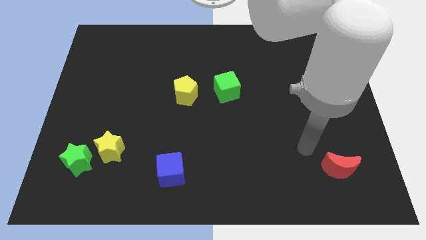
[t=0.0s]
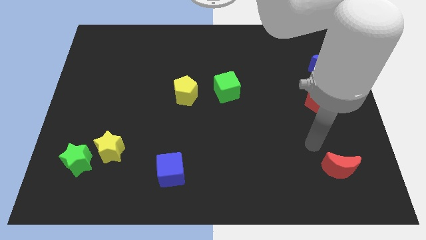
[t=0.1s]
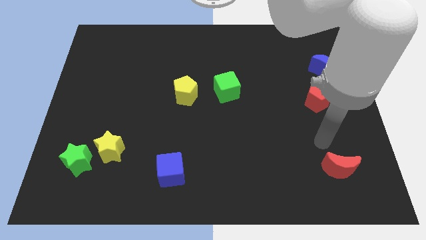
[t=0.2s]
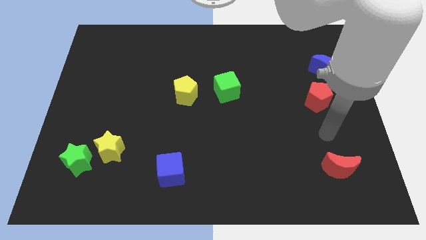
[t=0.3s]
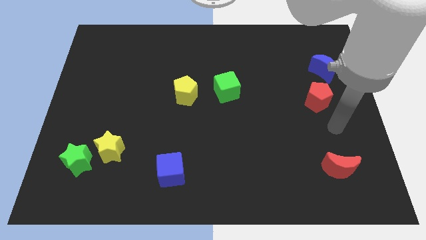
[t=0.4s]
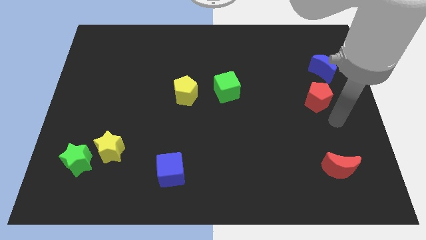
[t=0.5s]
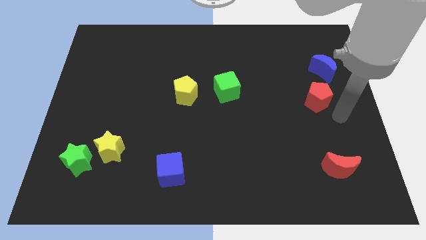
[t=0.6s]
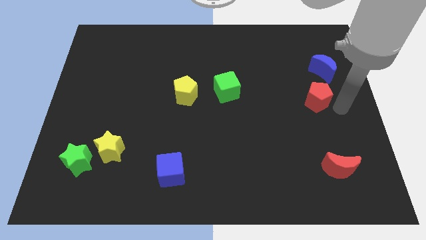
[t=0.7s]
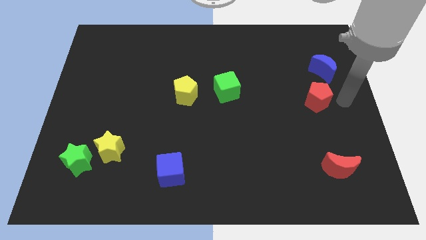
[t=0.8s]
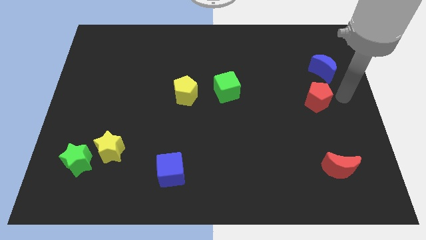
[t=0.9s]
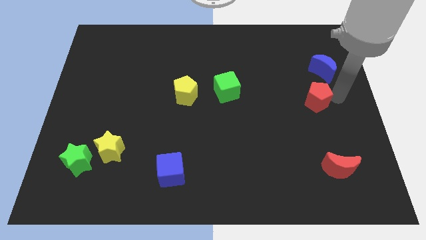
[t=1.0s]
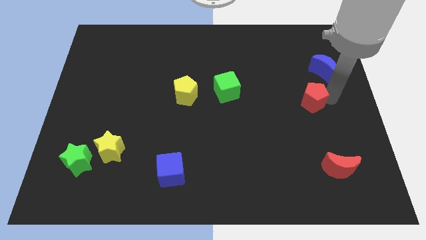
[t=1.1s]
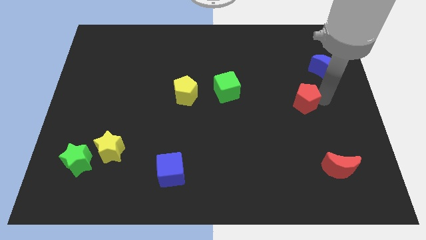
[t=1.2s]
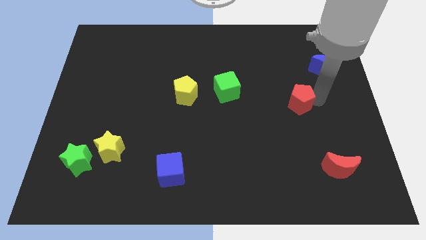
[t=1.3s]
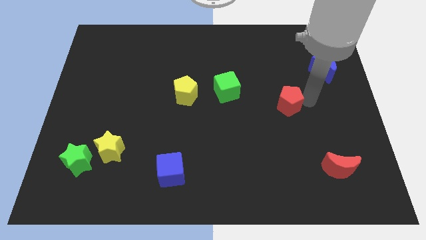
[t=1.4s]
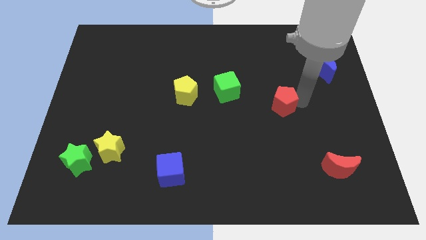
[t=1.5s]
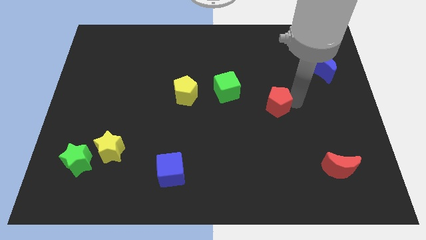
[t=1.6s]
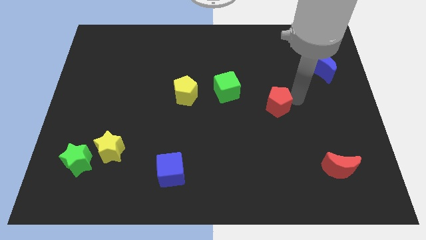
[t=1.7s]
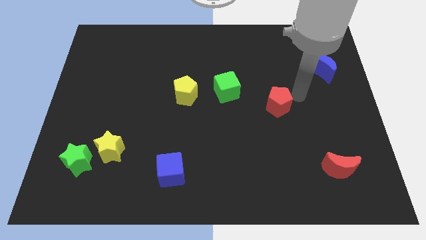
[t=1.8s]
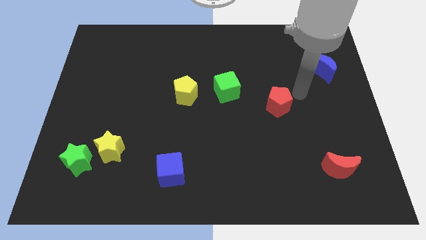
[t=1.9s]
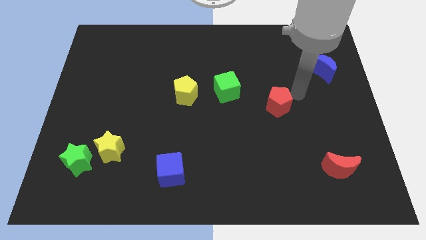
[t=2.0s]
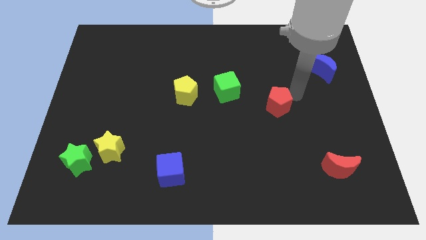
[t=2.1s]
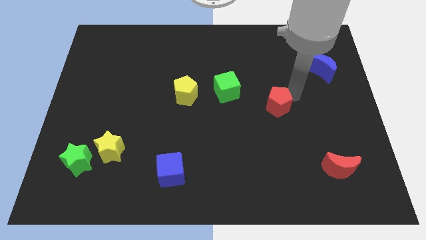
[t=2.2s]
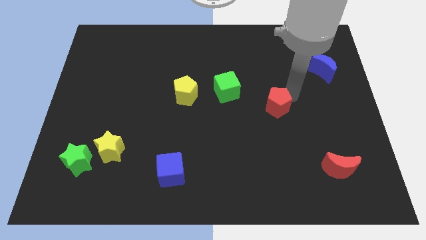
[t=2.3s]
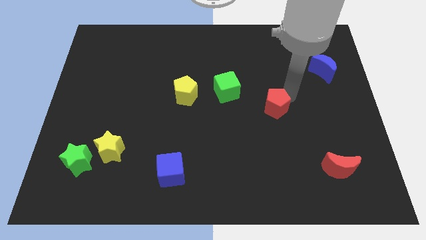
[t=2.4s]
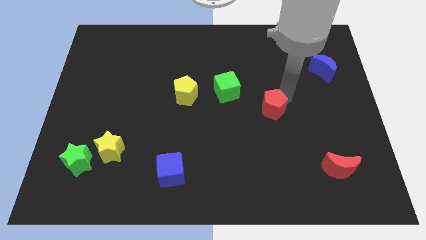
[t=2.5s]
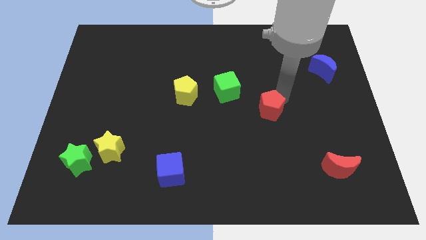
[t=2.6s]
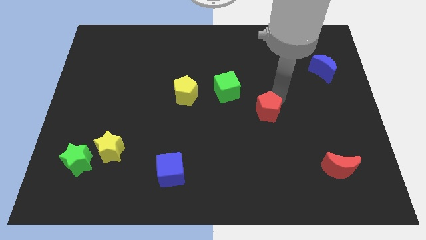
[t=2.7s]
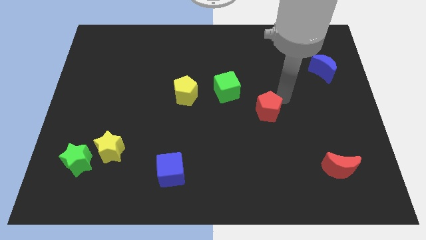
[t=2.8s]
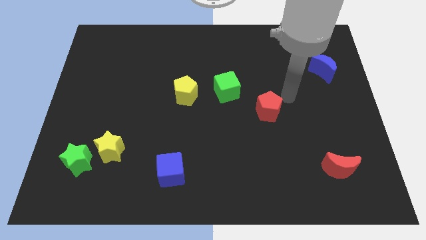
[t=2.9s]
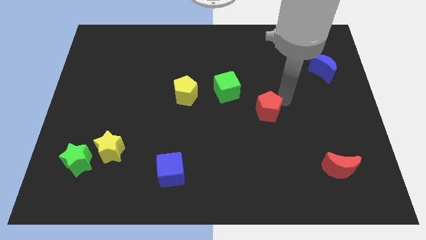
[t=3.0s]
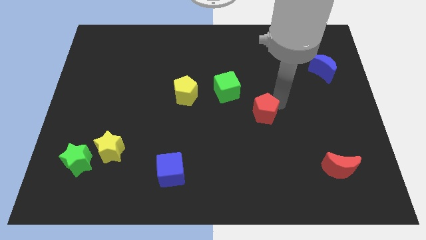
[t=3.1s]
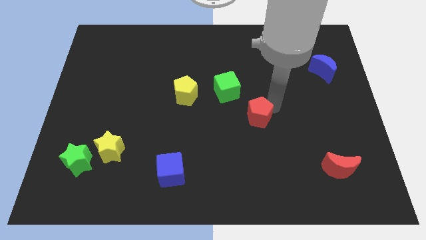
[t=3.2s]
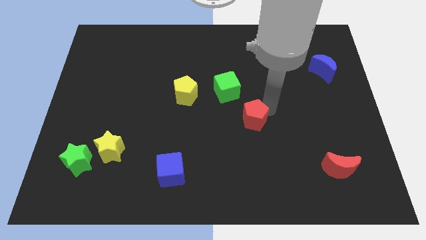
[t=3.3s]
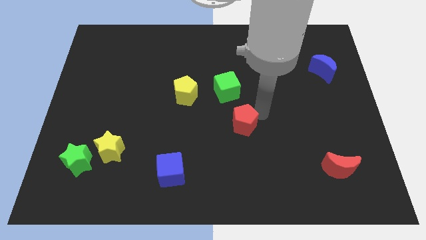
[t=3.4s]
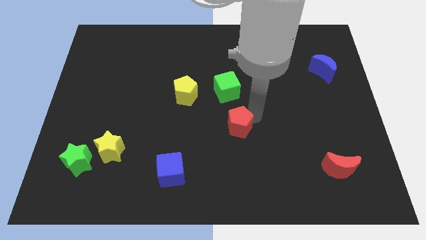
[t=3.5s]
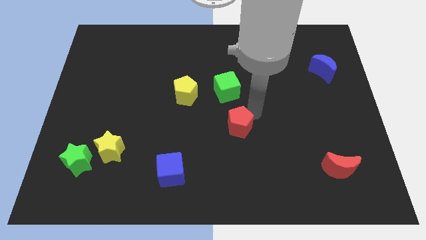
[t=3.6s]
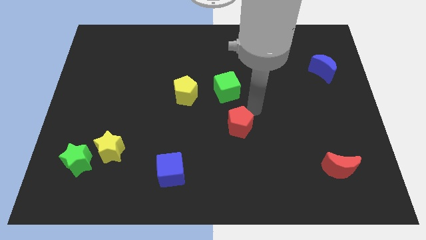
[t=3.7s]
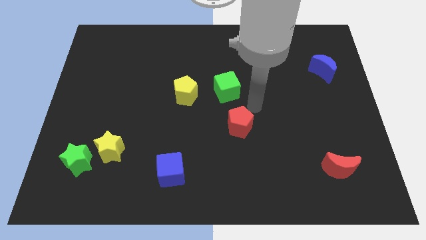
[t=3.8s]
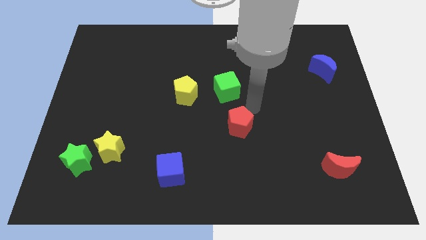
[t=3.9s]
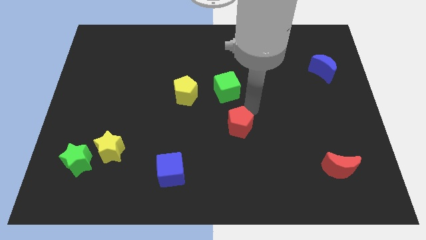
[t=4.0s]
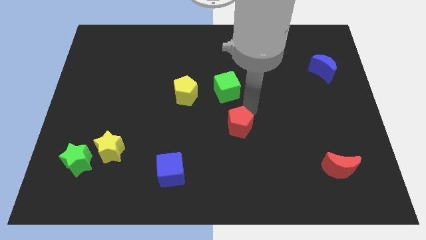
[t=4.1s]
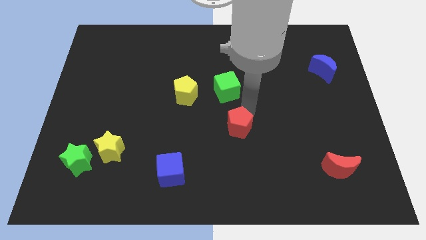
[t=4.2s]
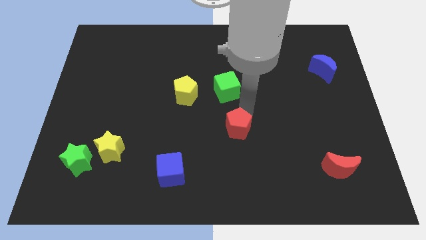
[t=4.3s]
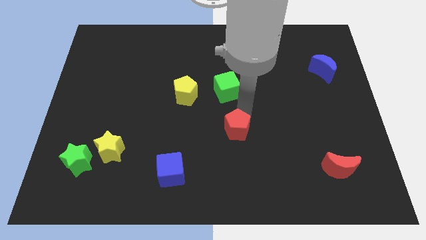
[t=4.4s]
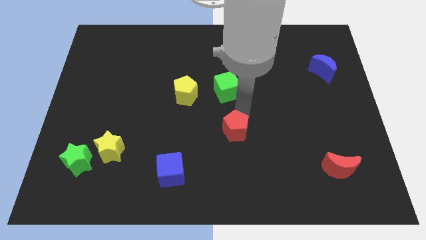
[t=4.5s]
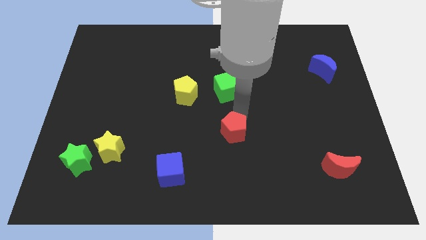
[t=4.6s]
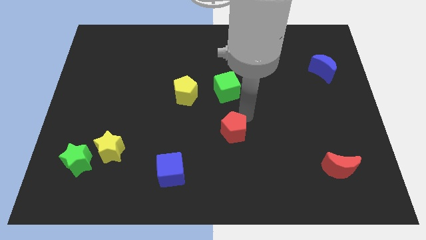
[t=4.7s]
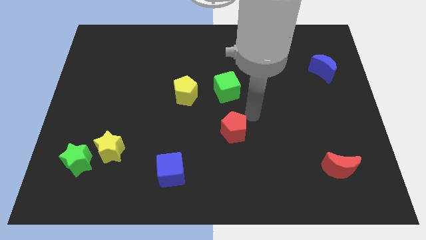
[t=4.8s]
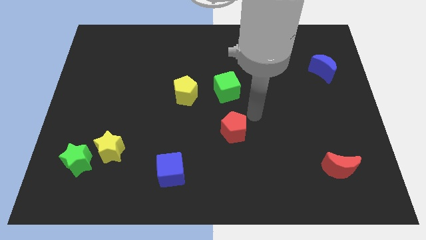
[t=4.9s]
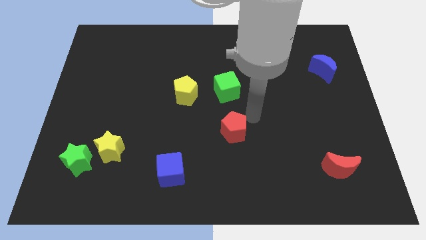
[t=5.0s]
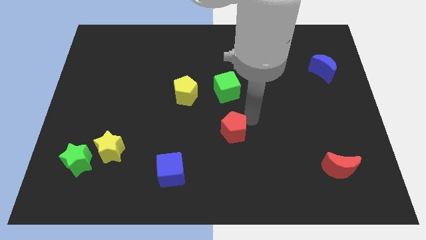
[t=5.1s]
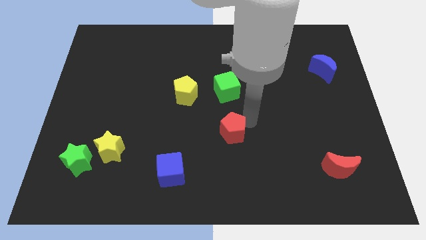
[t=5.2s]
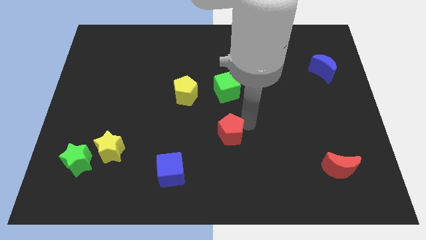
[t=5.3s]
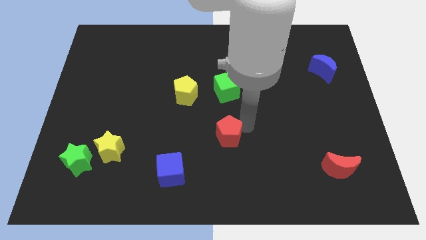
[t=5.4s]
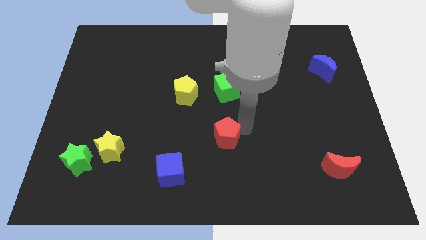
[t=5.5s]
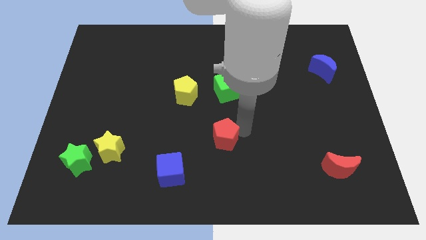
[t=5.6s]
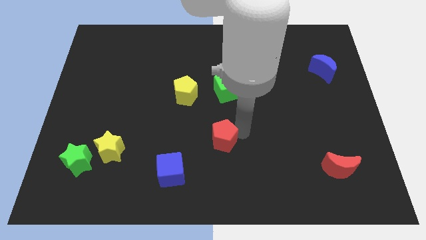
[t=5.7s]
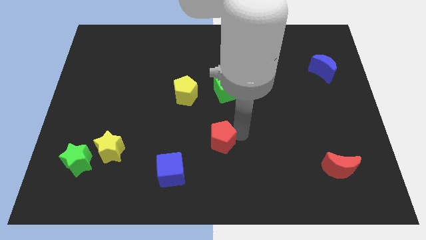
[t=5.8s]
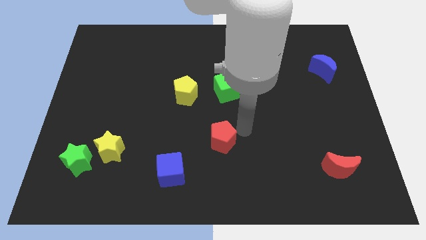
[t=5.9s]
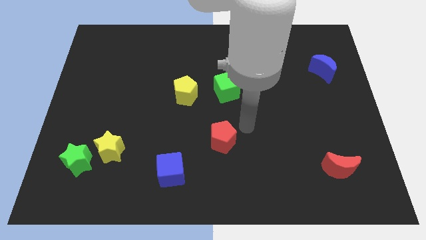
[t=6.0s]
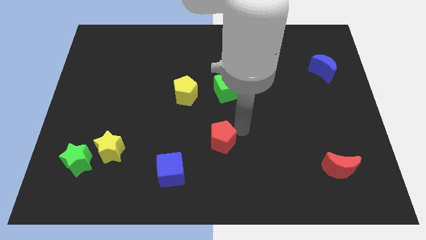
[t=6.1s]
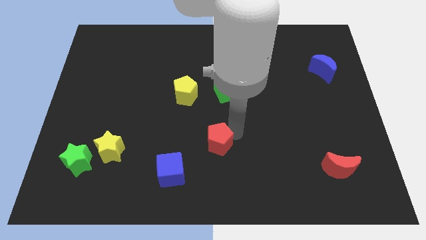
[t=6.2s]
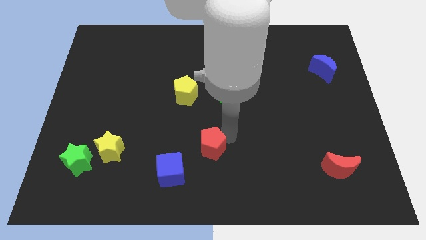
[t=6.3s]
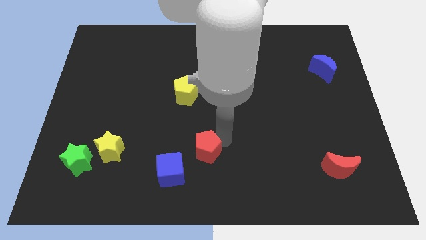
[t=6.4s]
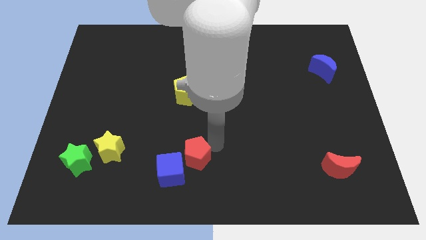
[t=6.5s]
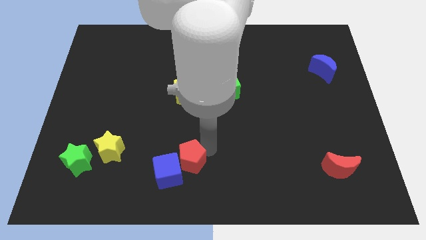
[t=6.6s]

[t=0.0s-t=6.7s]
put the red pentagon towards the blue cube

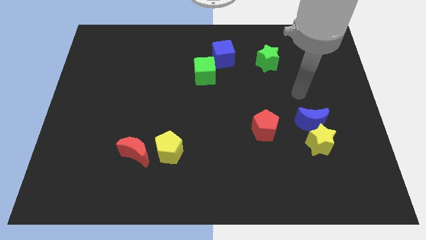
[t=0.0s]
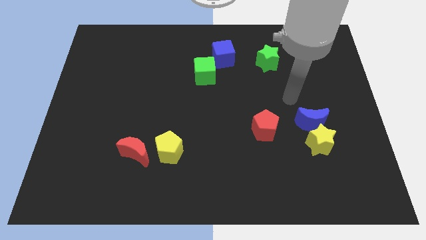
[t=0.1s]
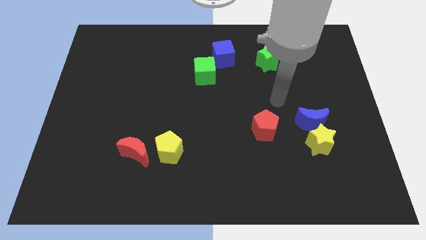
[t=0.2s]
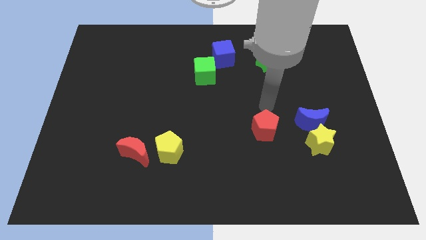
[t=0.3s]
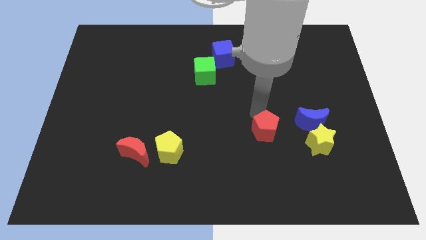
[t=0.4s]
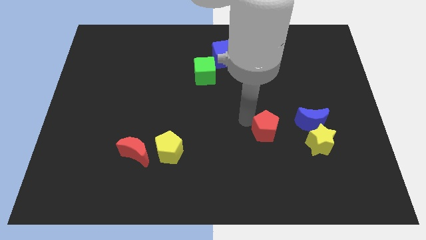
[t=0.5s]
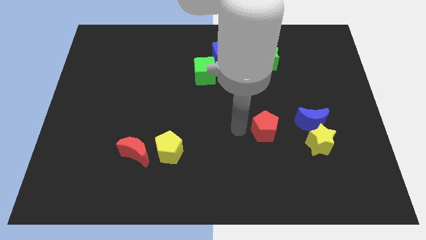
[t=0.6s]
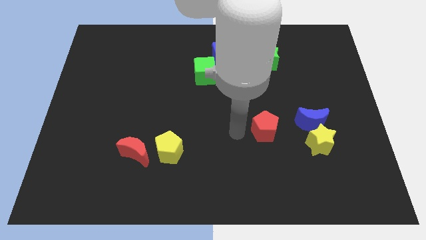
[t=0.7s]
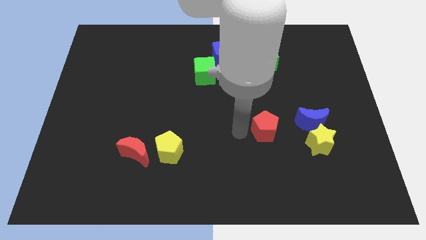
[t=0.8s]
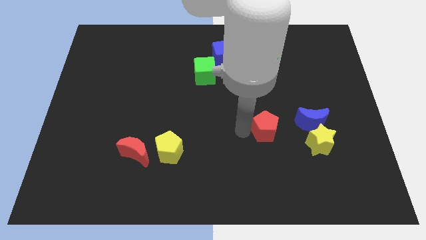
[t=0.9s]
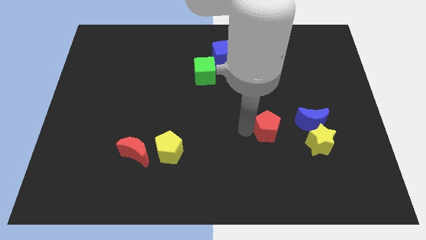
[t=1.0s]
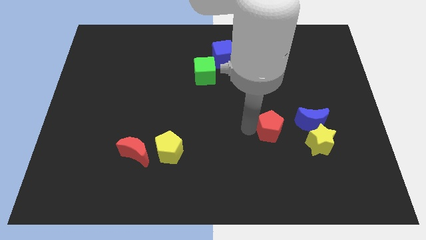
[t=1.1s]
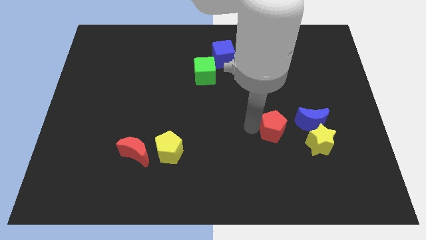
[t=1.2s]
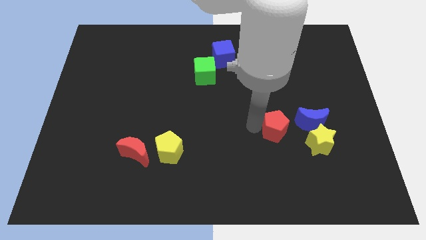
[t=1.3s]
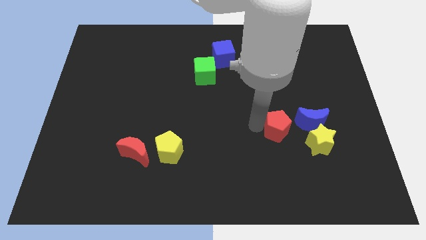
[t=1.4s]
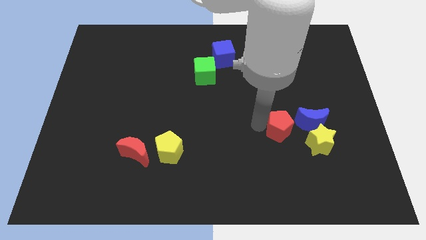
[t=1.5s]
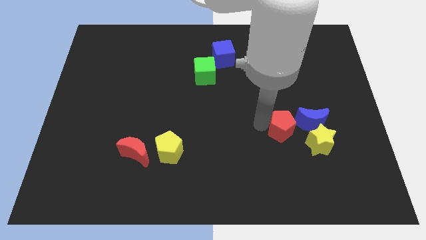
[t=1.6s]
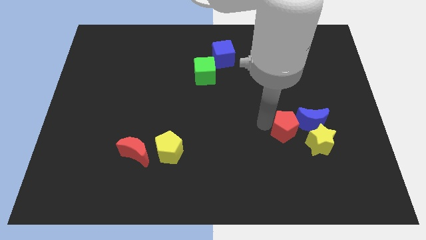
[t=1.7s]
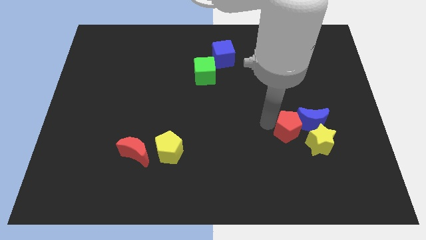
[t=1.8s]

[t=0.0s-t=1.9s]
move the red pentagon close to the blue moon
